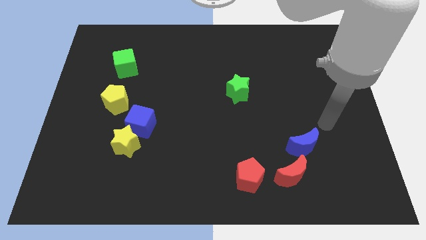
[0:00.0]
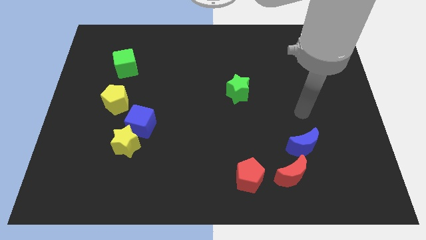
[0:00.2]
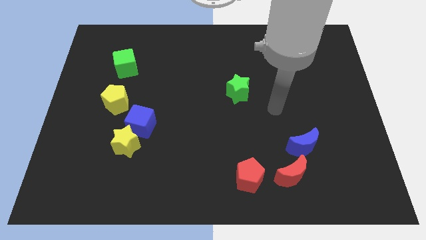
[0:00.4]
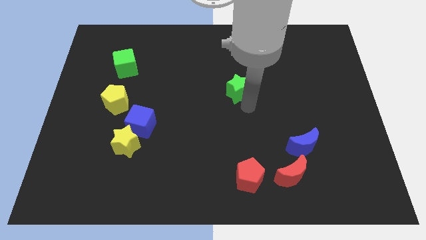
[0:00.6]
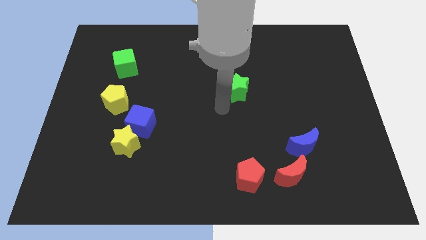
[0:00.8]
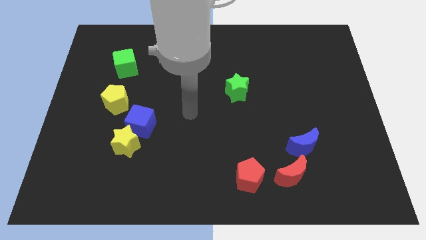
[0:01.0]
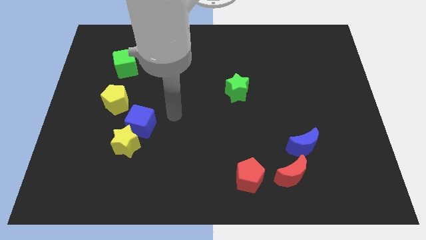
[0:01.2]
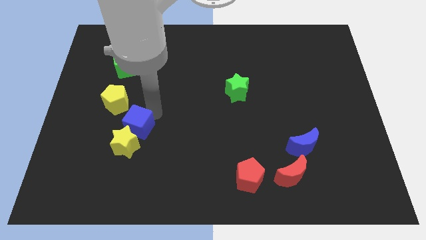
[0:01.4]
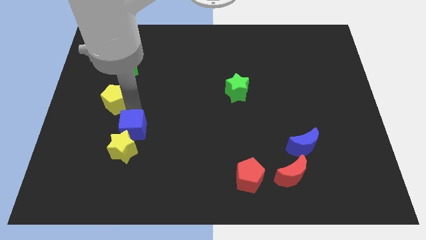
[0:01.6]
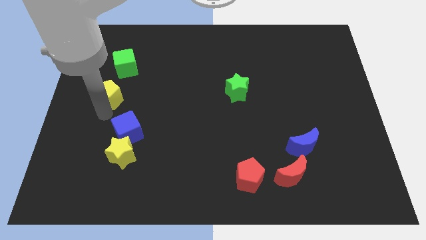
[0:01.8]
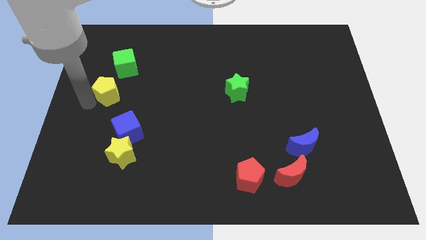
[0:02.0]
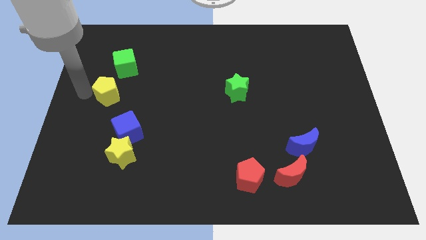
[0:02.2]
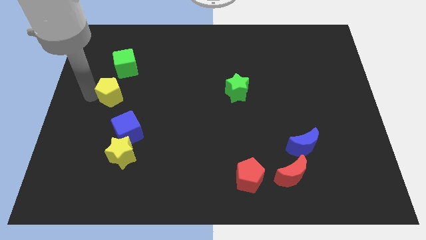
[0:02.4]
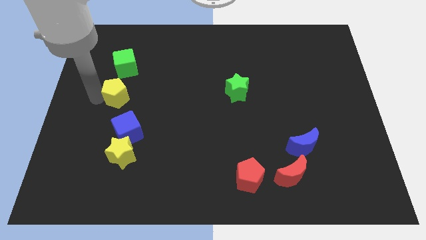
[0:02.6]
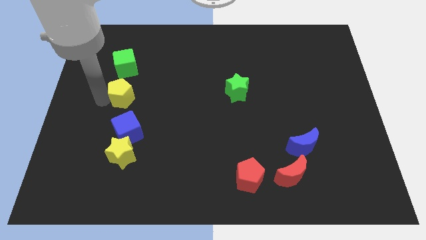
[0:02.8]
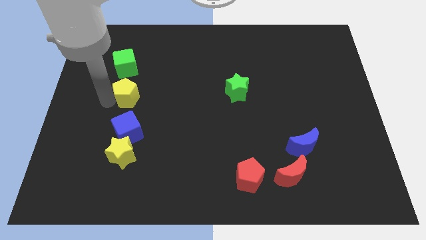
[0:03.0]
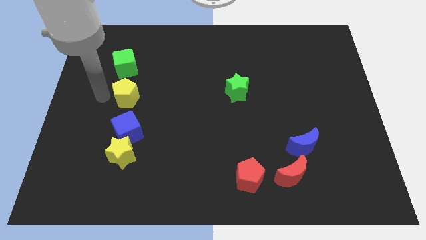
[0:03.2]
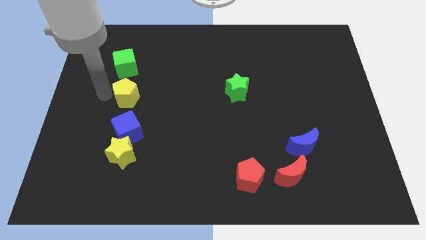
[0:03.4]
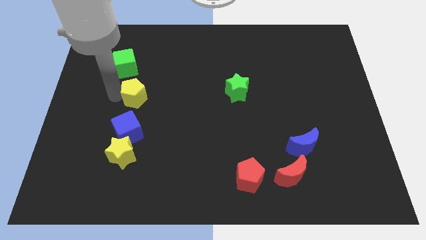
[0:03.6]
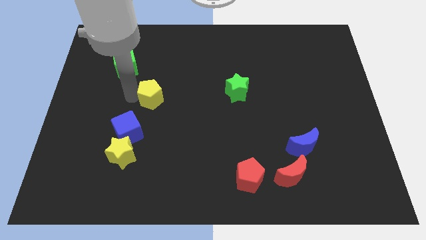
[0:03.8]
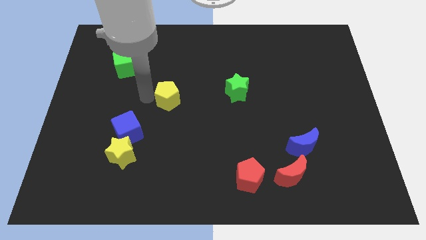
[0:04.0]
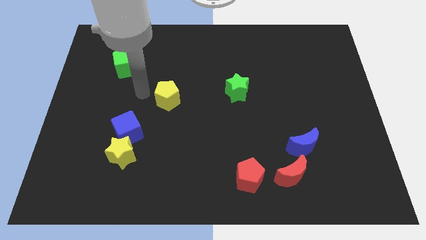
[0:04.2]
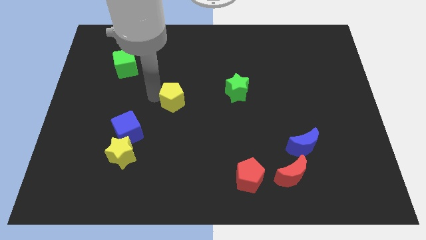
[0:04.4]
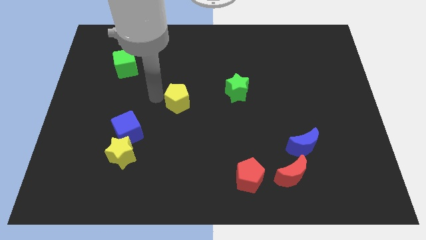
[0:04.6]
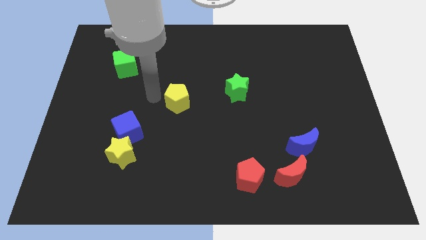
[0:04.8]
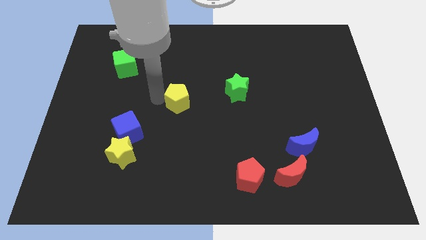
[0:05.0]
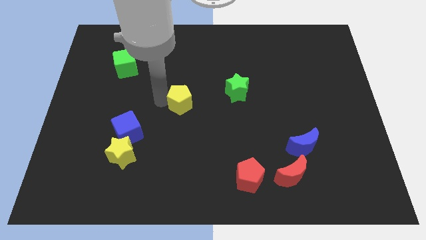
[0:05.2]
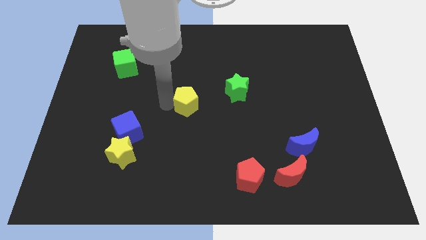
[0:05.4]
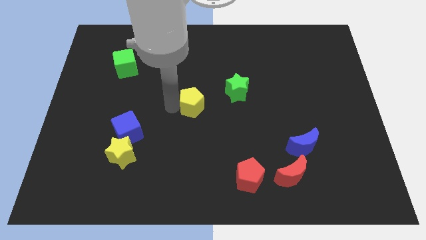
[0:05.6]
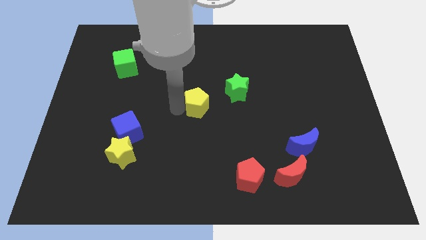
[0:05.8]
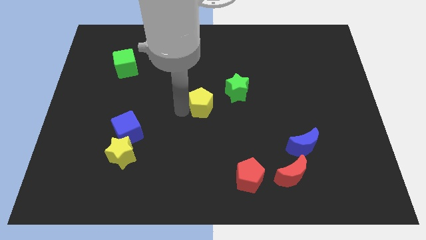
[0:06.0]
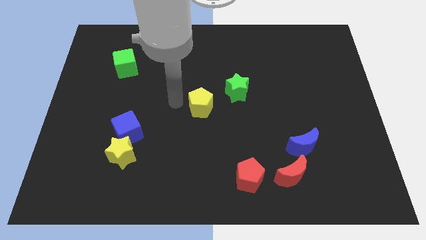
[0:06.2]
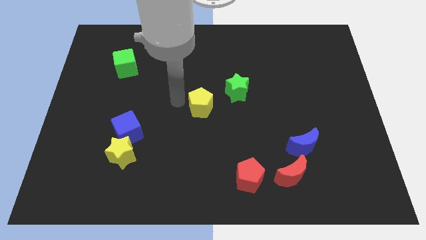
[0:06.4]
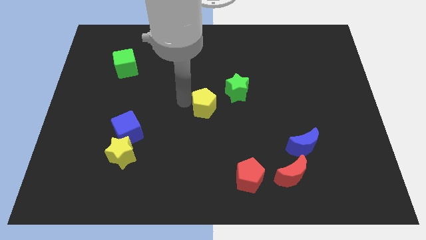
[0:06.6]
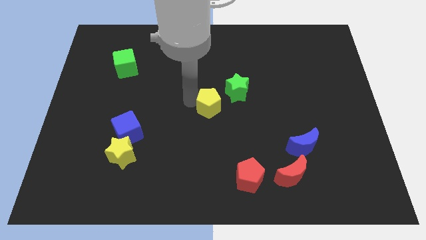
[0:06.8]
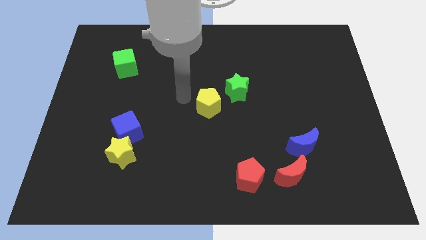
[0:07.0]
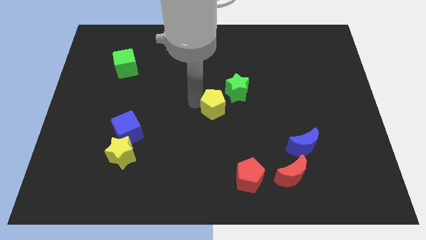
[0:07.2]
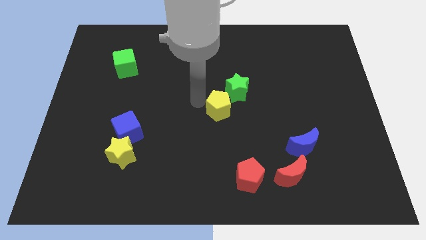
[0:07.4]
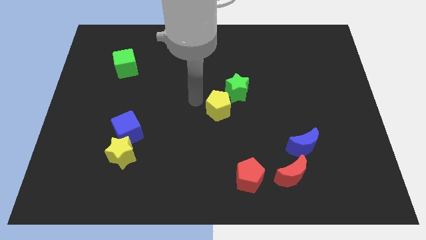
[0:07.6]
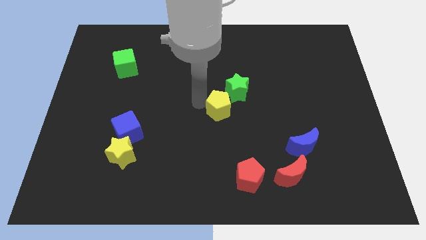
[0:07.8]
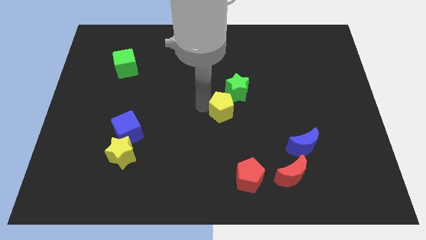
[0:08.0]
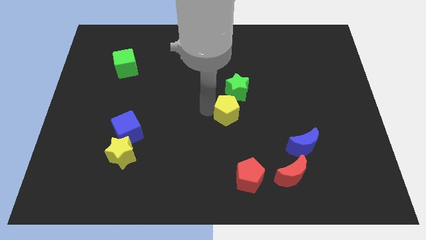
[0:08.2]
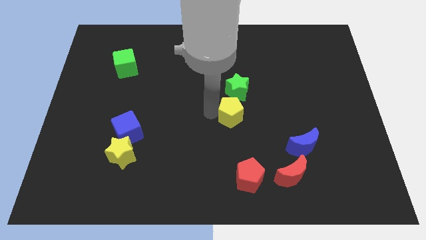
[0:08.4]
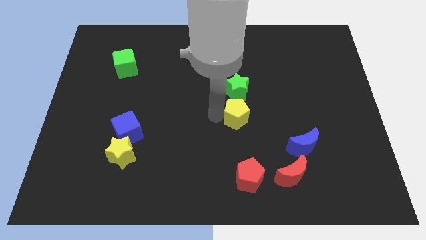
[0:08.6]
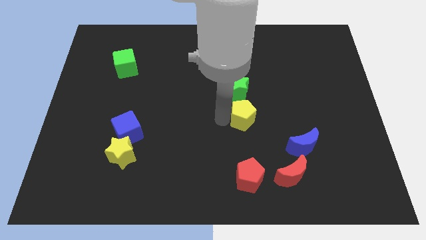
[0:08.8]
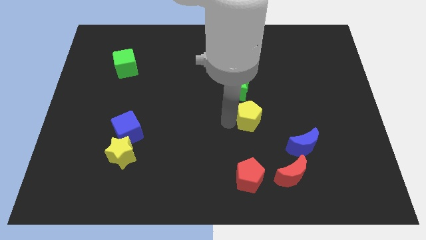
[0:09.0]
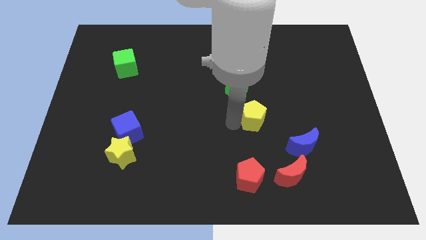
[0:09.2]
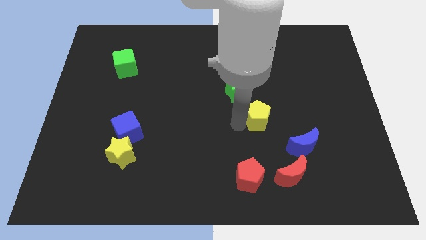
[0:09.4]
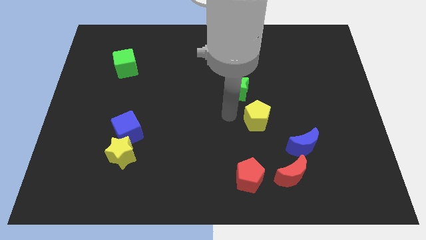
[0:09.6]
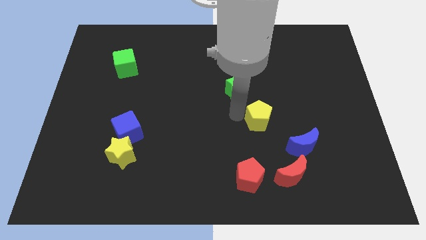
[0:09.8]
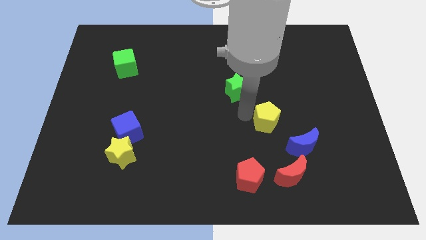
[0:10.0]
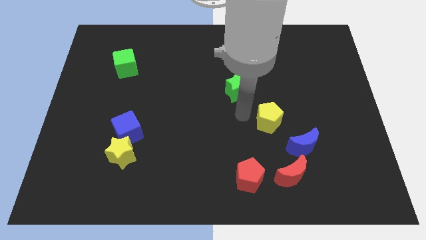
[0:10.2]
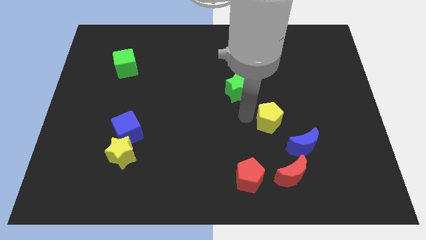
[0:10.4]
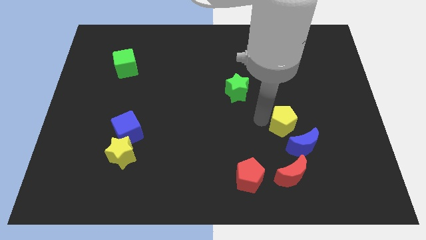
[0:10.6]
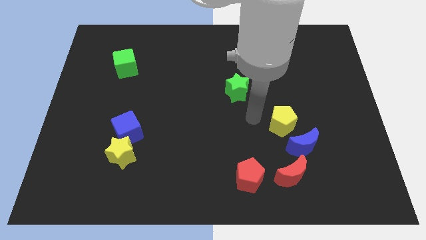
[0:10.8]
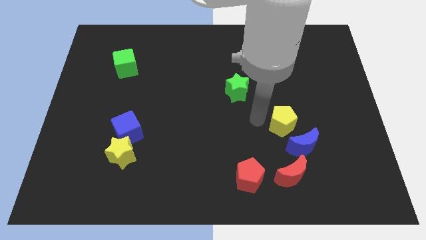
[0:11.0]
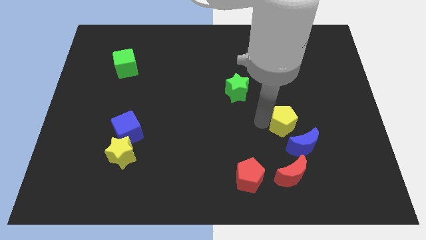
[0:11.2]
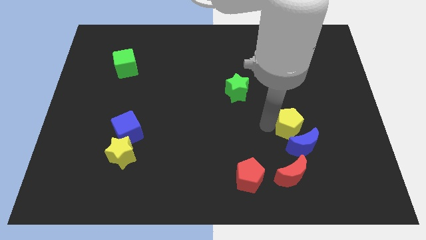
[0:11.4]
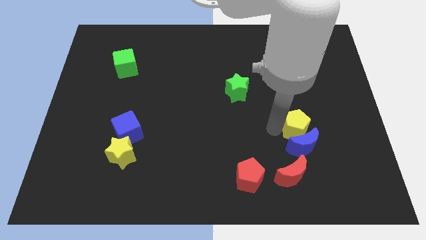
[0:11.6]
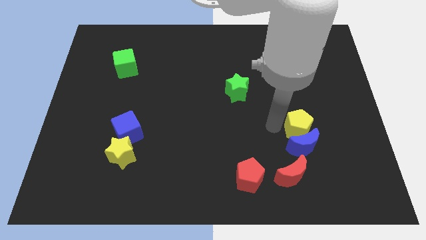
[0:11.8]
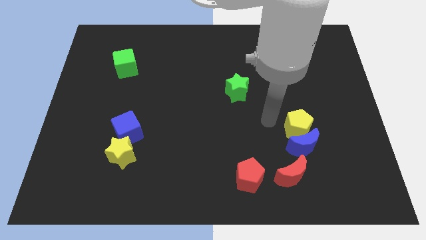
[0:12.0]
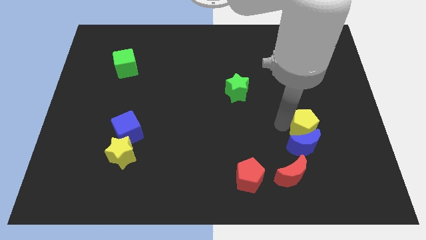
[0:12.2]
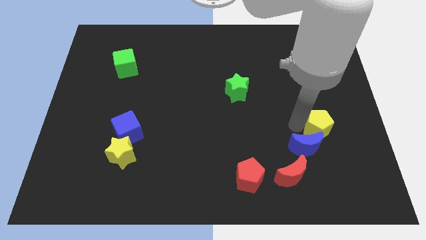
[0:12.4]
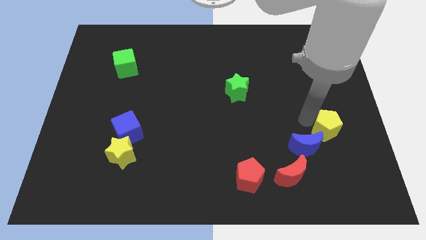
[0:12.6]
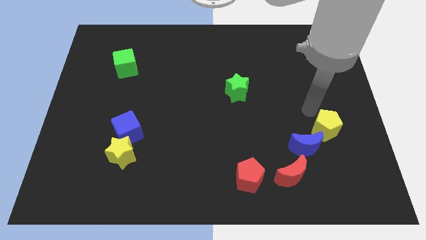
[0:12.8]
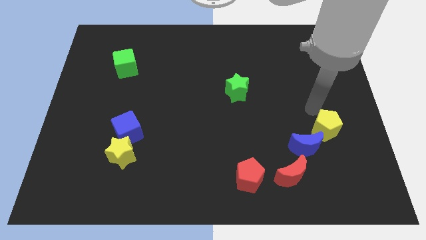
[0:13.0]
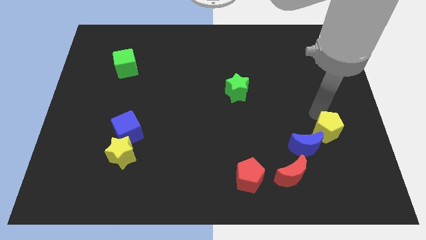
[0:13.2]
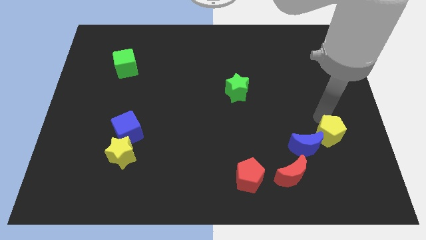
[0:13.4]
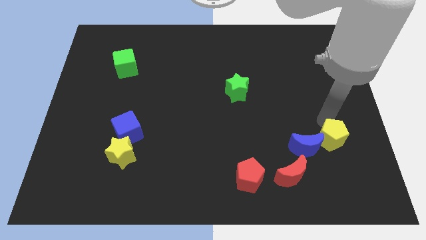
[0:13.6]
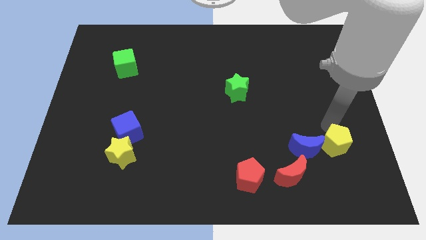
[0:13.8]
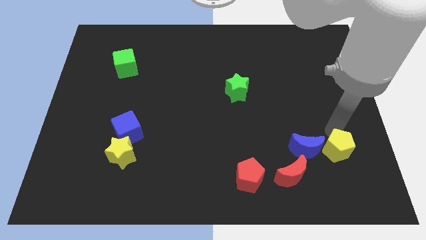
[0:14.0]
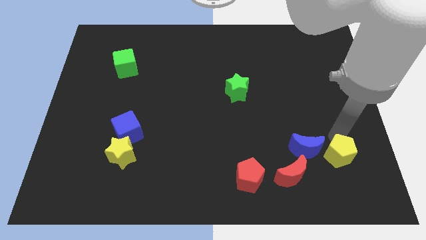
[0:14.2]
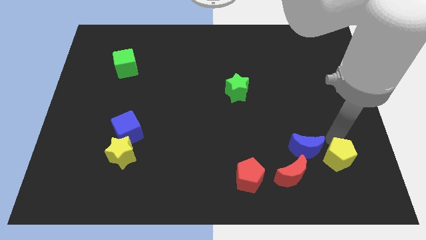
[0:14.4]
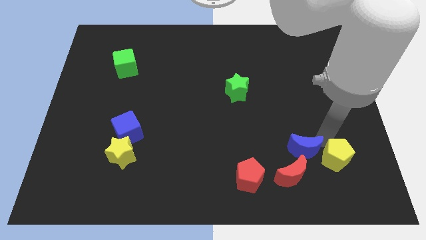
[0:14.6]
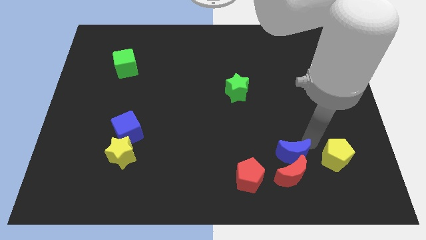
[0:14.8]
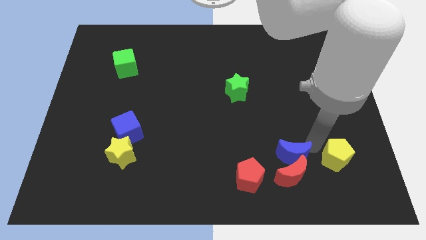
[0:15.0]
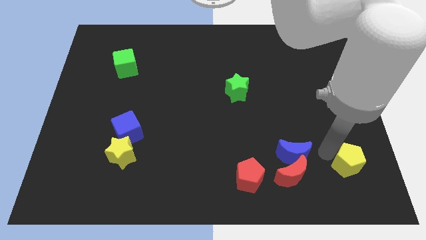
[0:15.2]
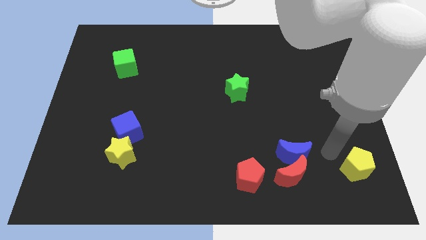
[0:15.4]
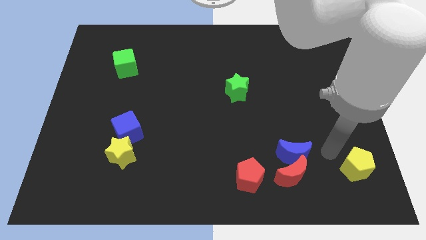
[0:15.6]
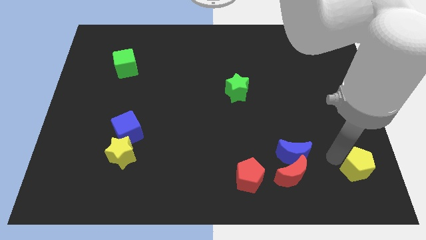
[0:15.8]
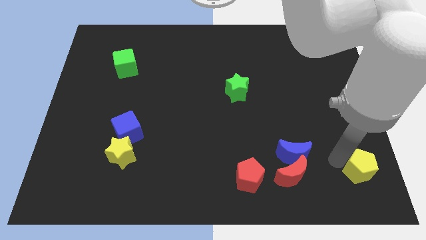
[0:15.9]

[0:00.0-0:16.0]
slide the yellow pentagon to the bottom right
